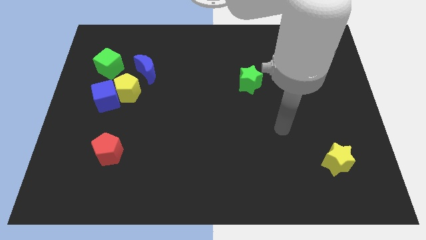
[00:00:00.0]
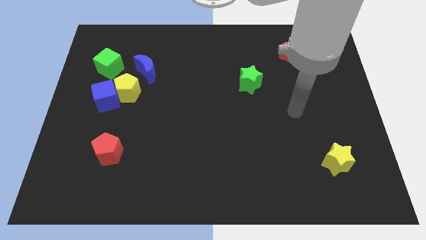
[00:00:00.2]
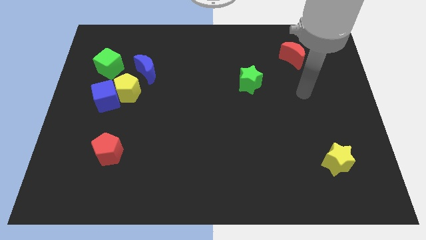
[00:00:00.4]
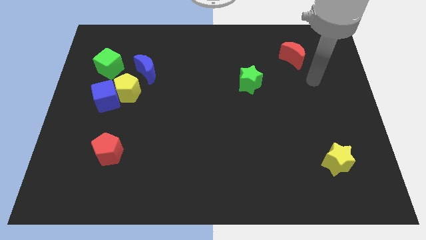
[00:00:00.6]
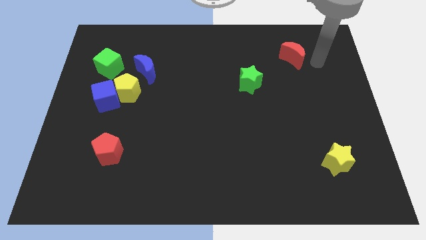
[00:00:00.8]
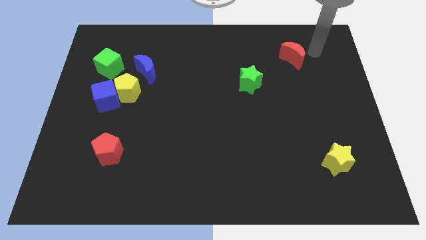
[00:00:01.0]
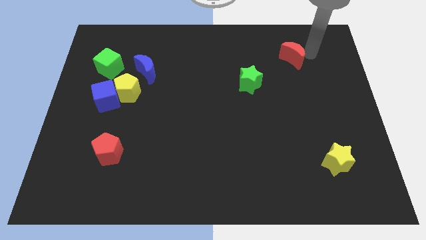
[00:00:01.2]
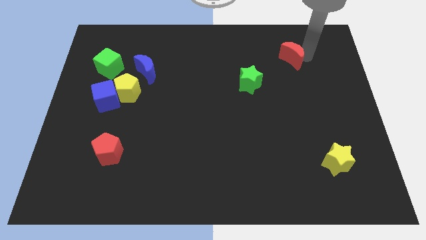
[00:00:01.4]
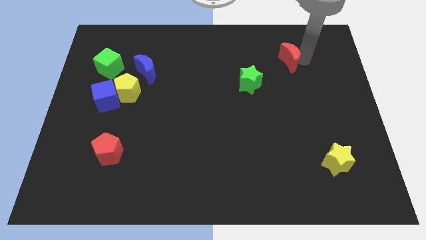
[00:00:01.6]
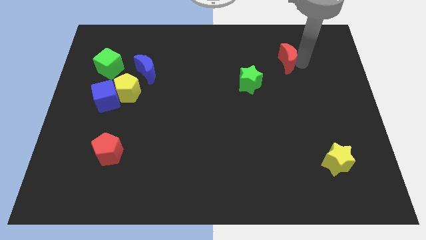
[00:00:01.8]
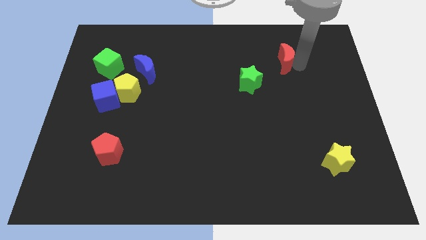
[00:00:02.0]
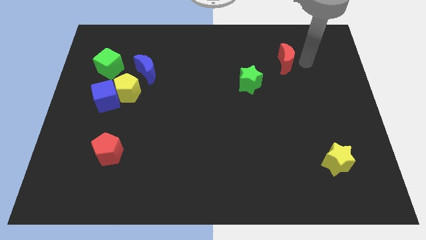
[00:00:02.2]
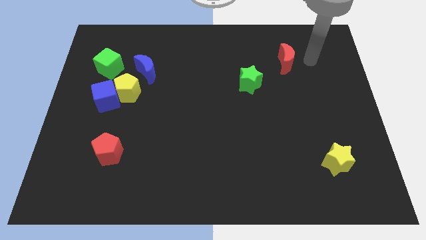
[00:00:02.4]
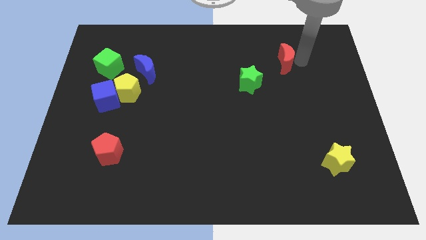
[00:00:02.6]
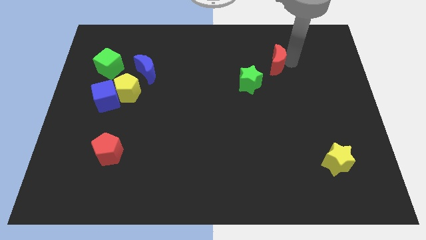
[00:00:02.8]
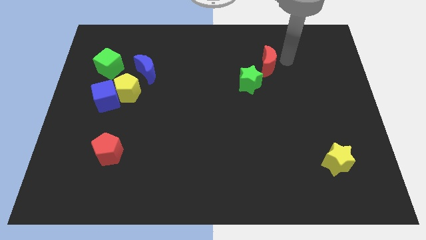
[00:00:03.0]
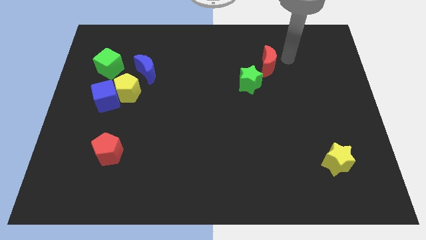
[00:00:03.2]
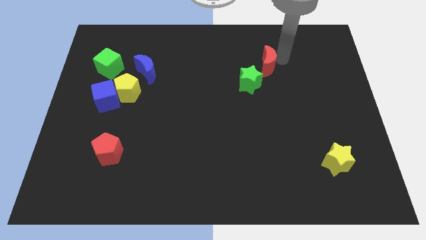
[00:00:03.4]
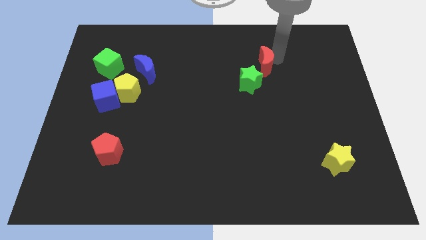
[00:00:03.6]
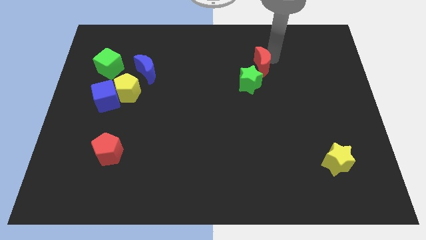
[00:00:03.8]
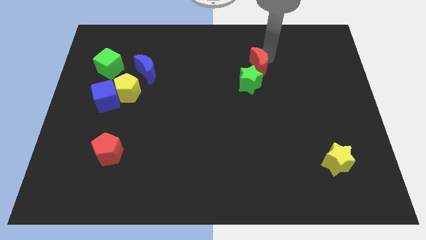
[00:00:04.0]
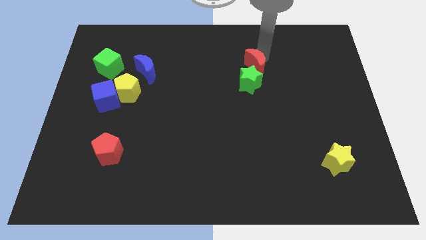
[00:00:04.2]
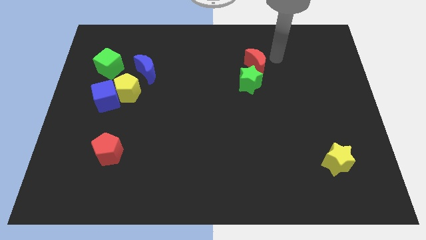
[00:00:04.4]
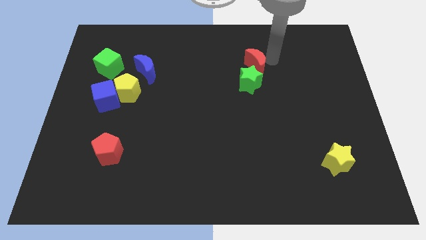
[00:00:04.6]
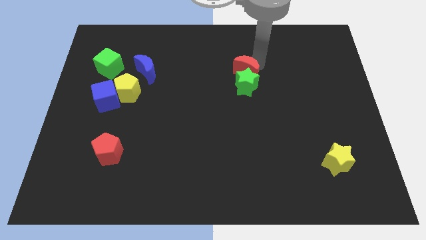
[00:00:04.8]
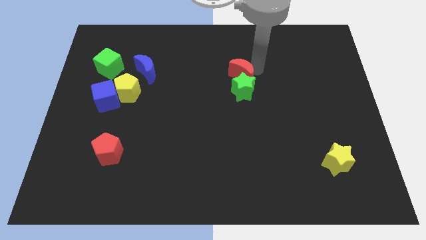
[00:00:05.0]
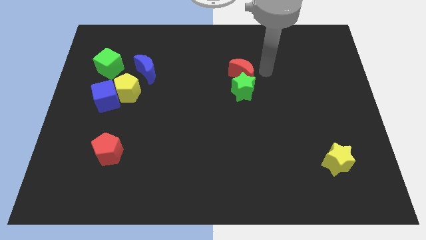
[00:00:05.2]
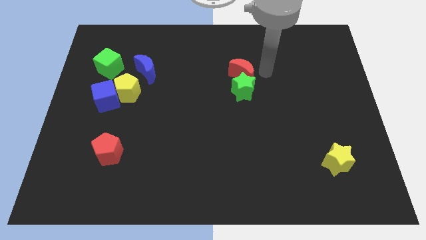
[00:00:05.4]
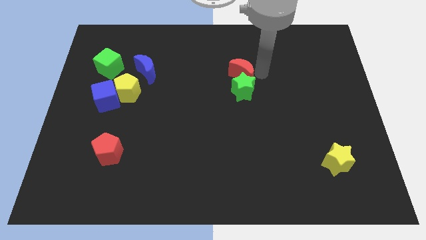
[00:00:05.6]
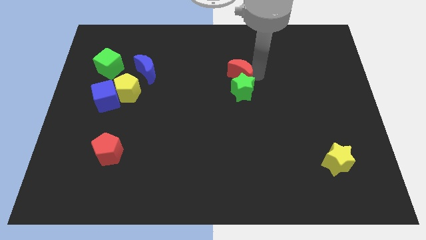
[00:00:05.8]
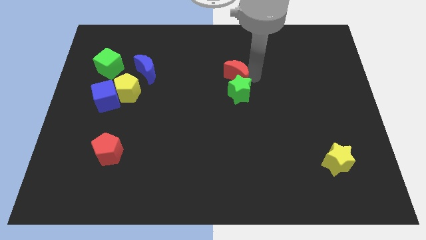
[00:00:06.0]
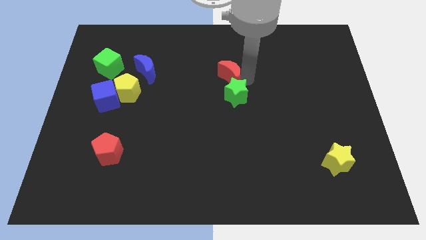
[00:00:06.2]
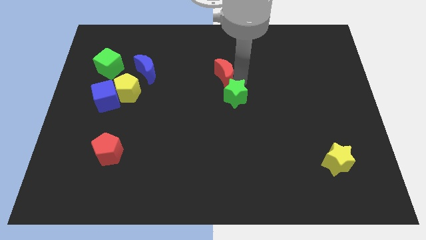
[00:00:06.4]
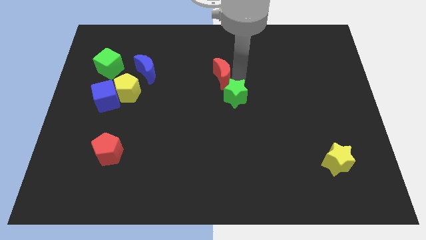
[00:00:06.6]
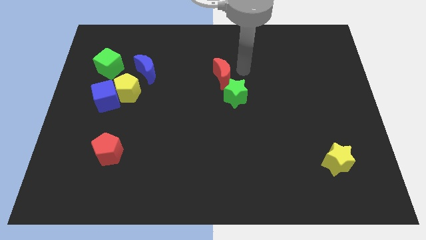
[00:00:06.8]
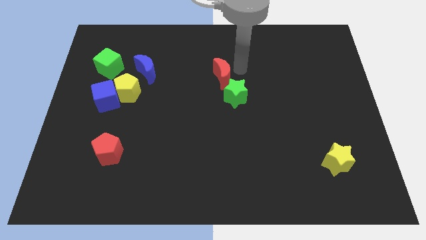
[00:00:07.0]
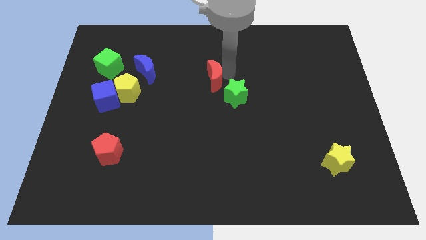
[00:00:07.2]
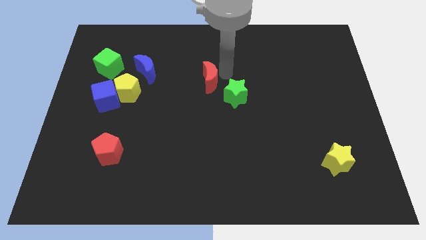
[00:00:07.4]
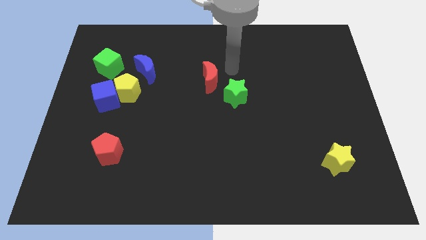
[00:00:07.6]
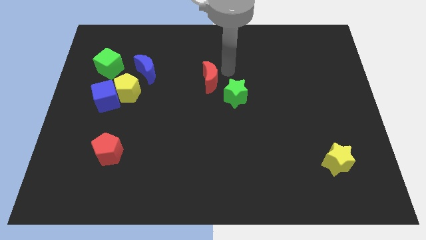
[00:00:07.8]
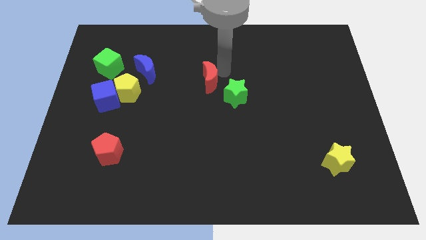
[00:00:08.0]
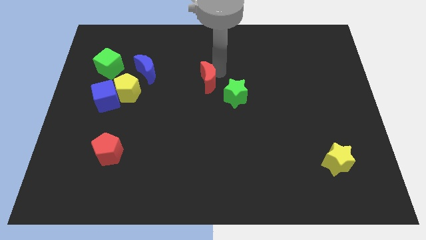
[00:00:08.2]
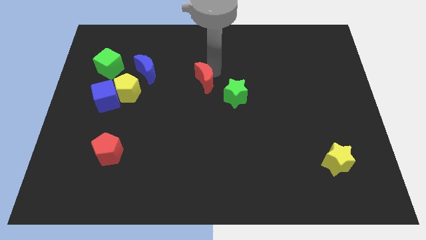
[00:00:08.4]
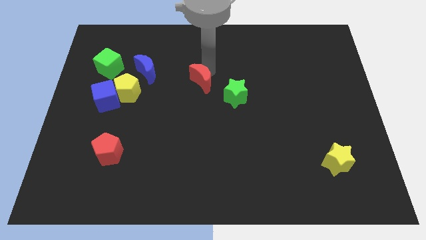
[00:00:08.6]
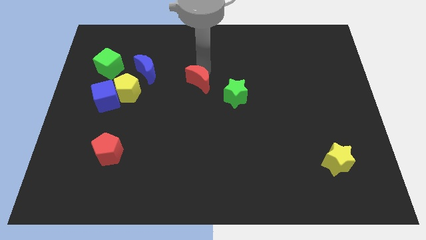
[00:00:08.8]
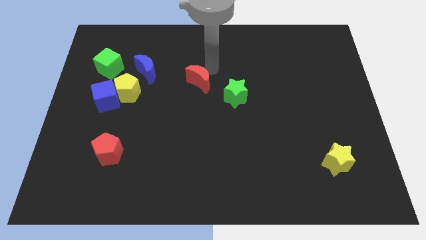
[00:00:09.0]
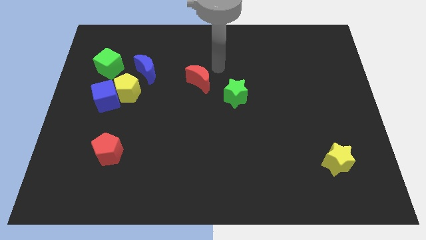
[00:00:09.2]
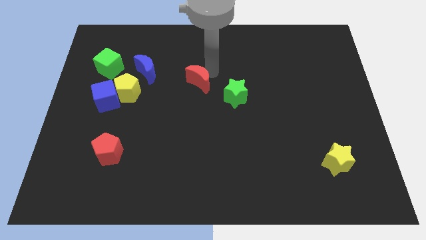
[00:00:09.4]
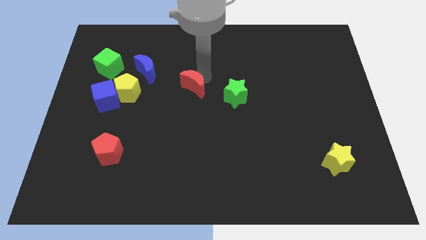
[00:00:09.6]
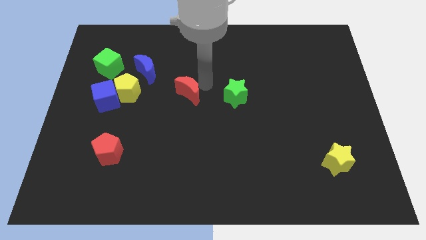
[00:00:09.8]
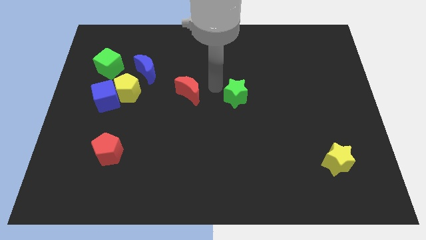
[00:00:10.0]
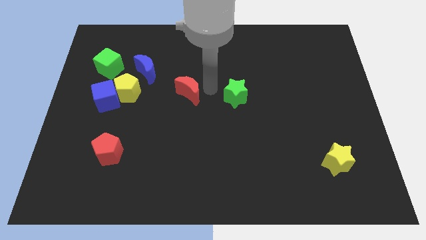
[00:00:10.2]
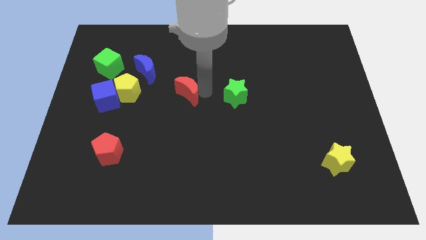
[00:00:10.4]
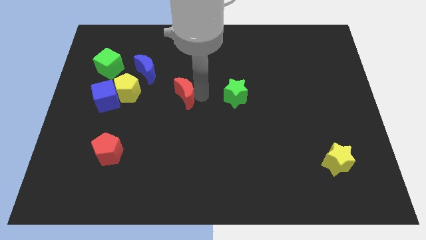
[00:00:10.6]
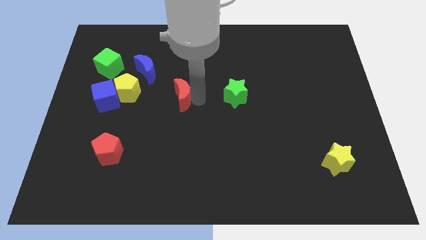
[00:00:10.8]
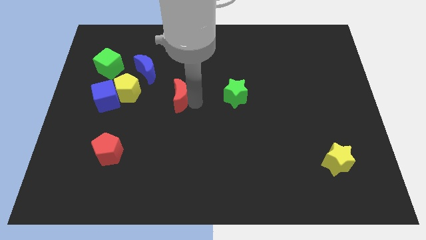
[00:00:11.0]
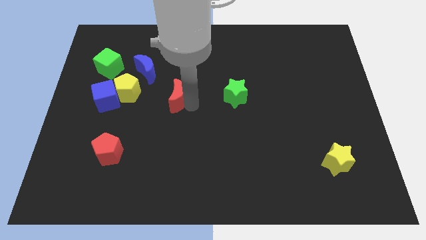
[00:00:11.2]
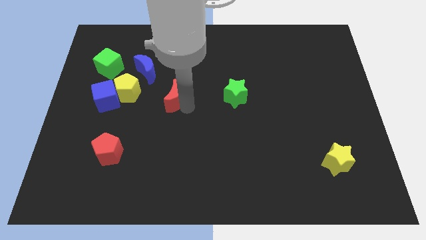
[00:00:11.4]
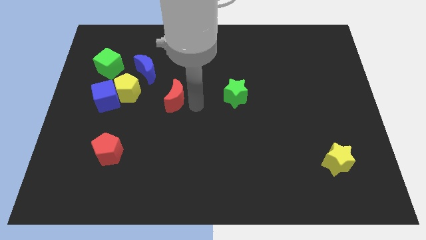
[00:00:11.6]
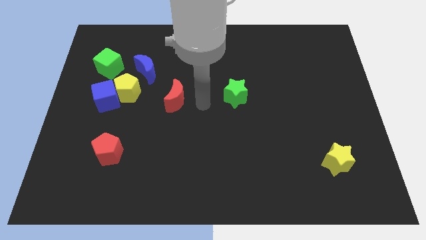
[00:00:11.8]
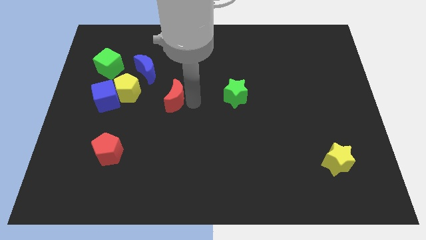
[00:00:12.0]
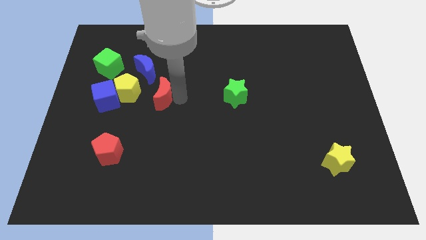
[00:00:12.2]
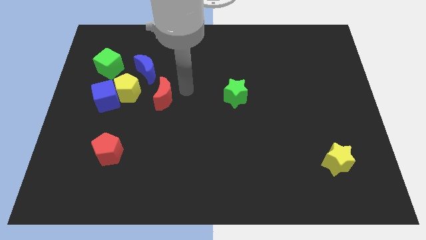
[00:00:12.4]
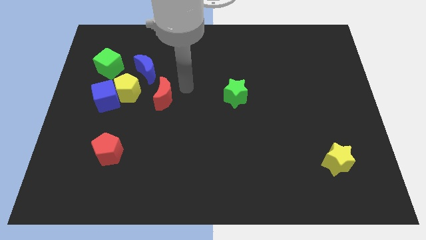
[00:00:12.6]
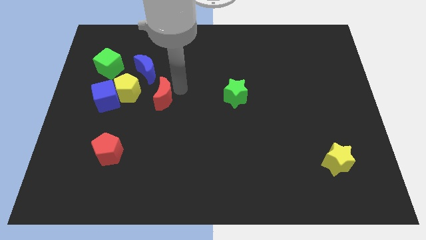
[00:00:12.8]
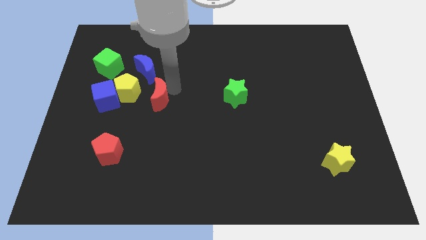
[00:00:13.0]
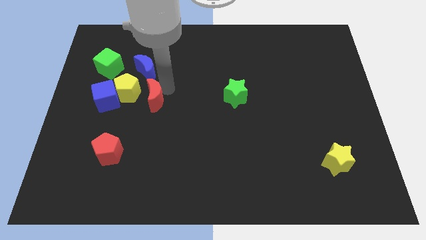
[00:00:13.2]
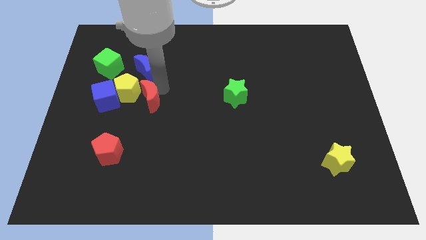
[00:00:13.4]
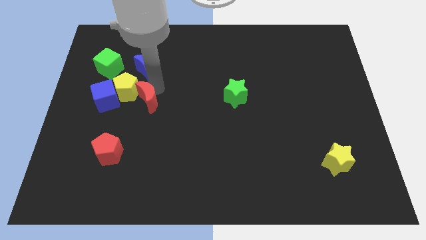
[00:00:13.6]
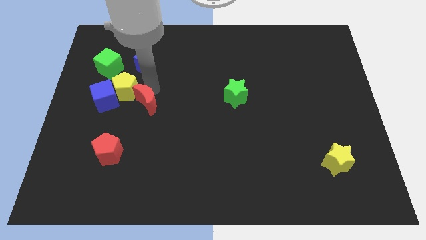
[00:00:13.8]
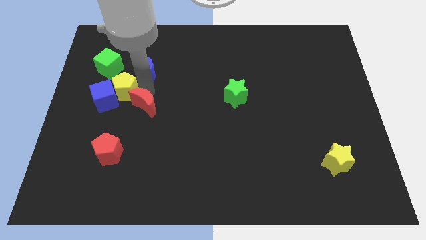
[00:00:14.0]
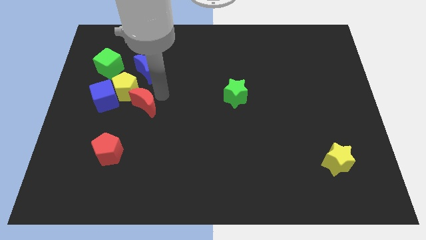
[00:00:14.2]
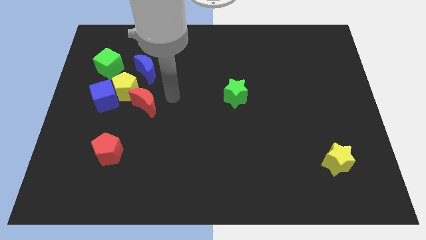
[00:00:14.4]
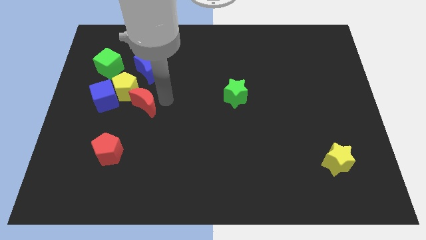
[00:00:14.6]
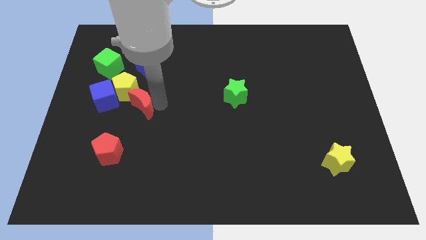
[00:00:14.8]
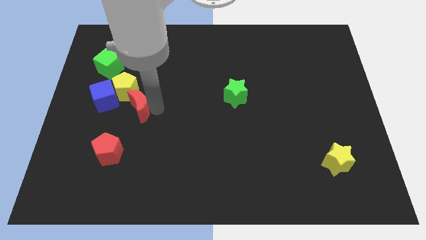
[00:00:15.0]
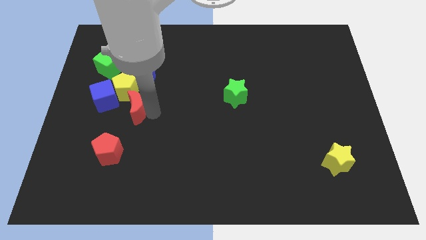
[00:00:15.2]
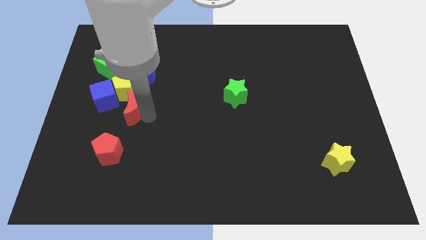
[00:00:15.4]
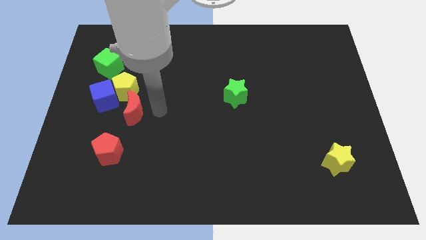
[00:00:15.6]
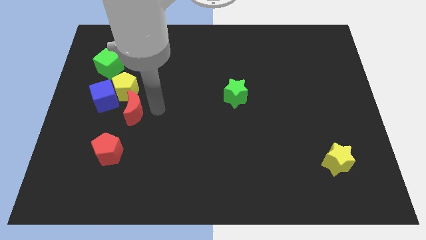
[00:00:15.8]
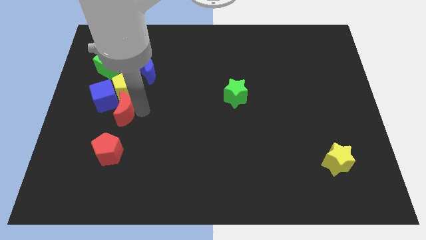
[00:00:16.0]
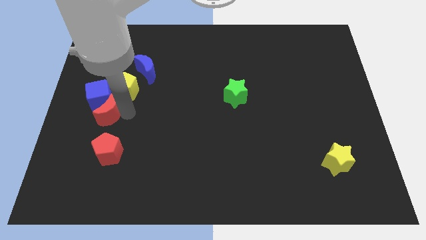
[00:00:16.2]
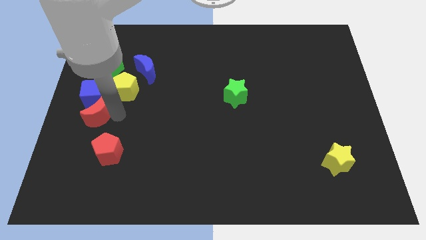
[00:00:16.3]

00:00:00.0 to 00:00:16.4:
slide the red moon to the center left
